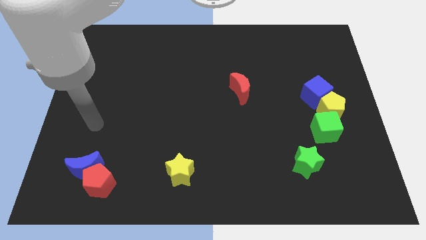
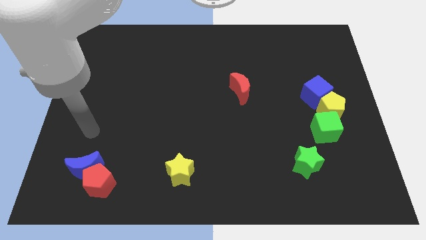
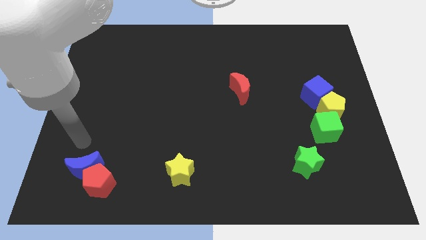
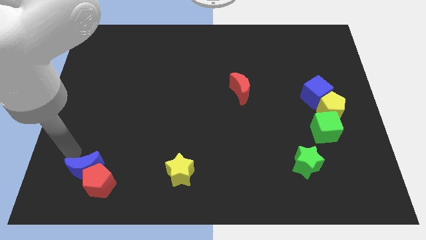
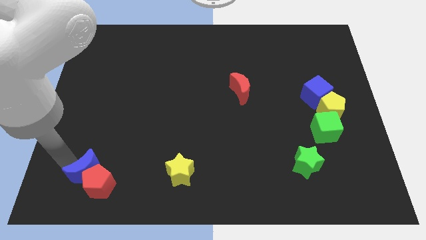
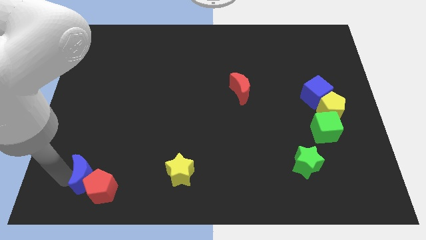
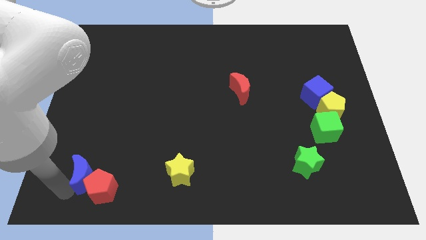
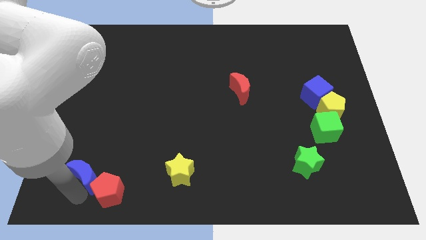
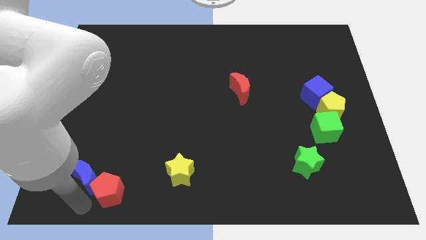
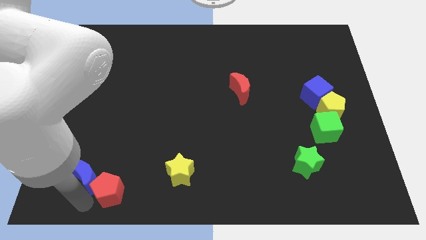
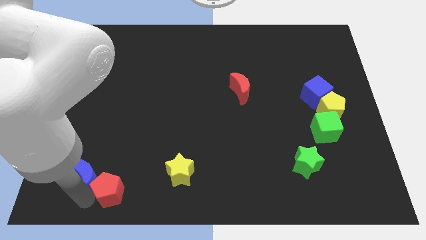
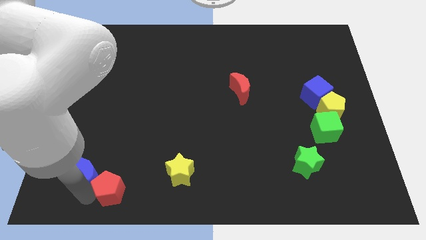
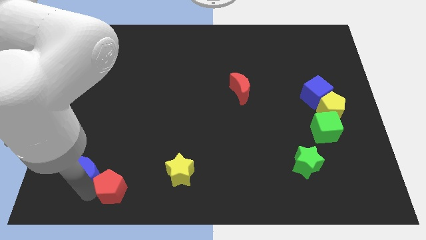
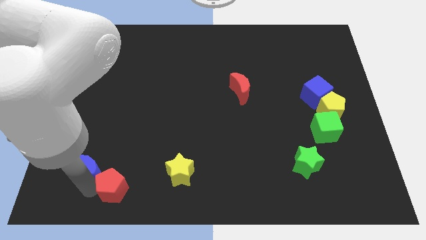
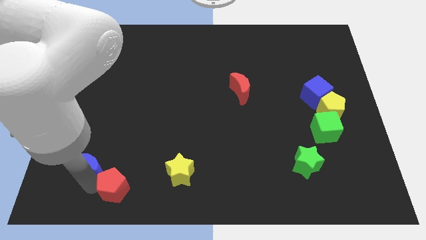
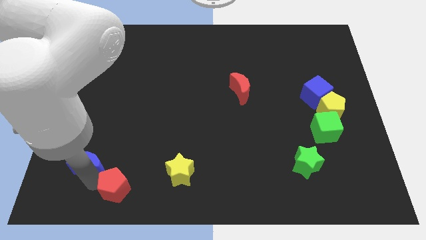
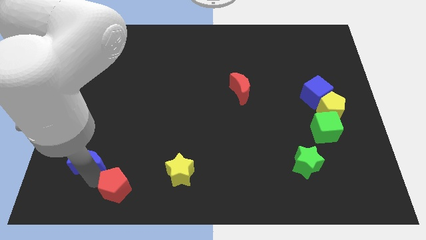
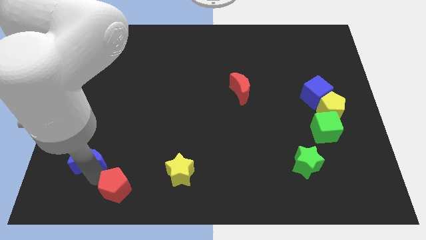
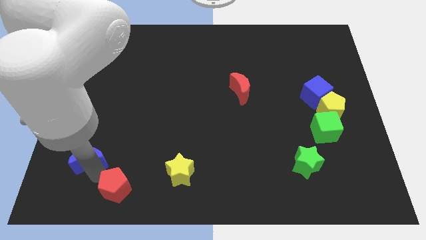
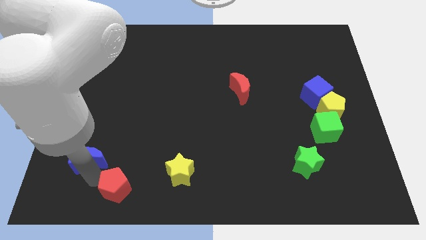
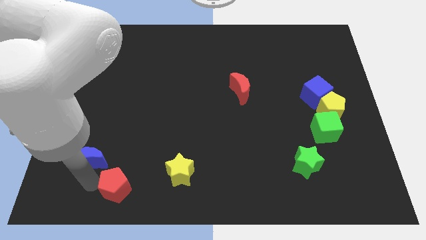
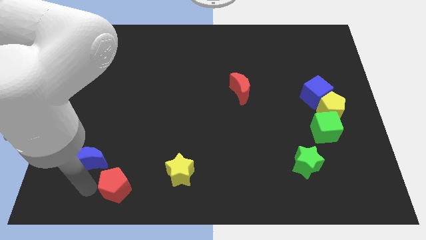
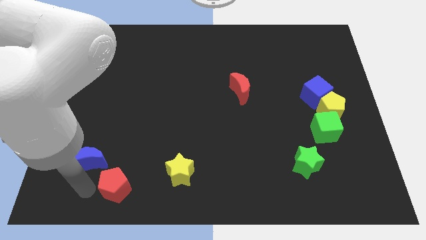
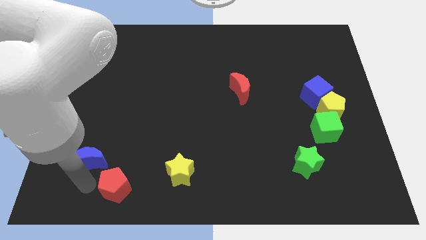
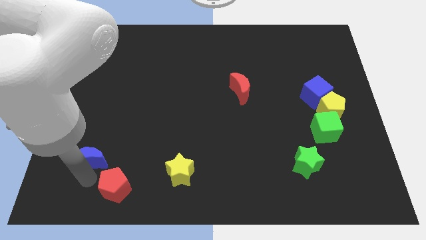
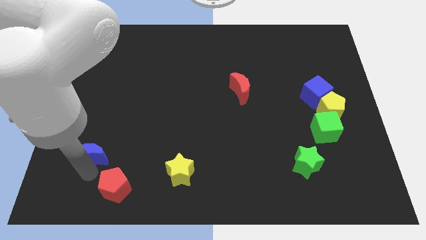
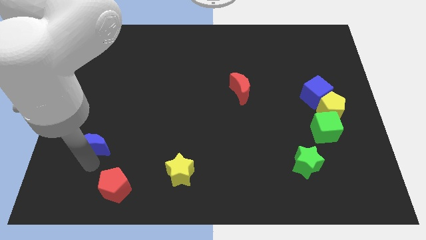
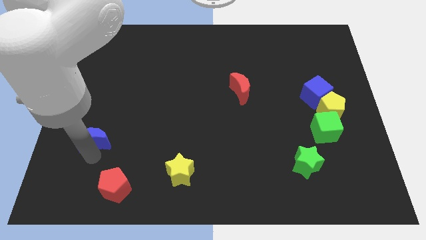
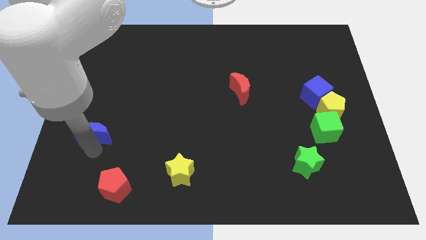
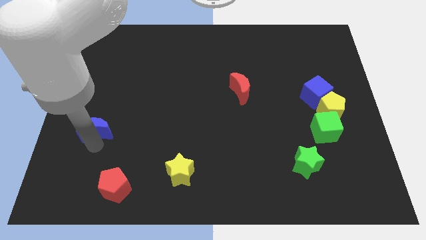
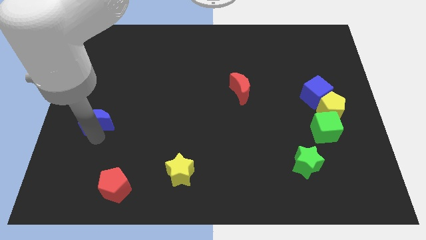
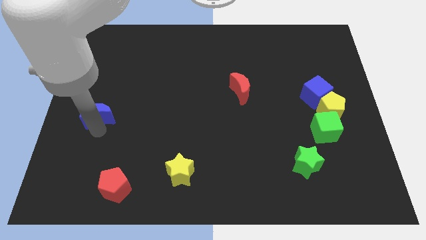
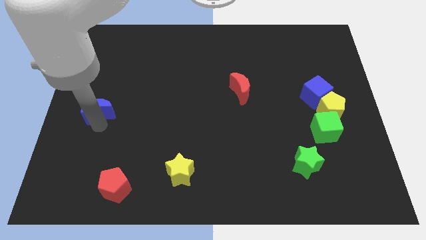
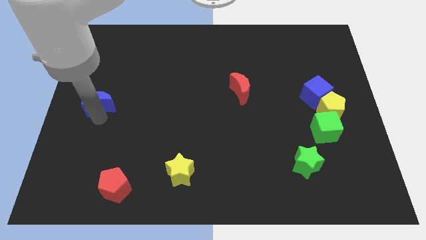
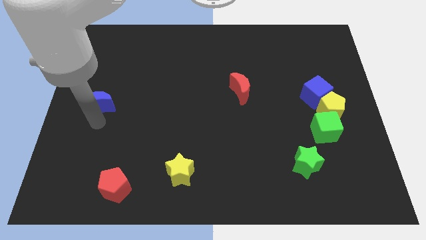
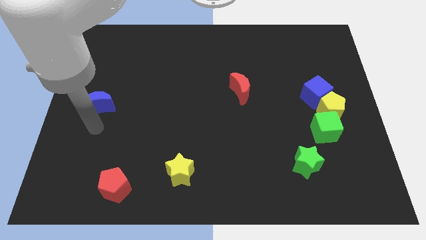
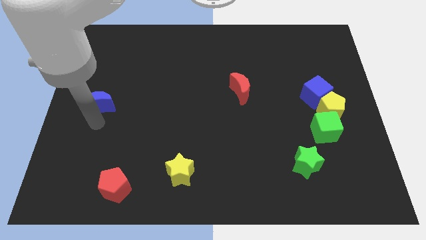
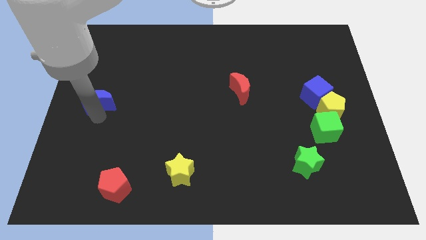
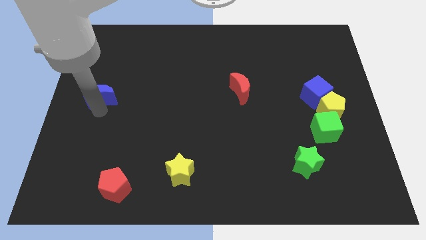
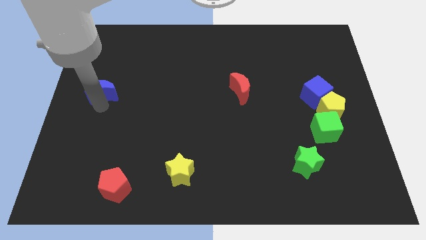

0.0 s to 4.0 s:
slide the blue moon upwards

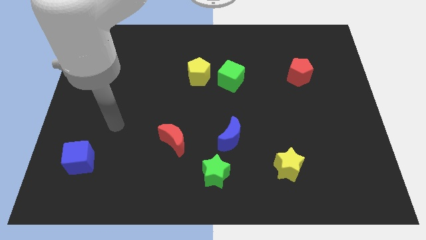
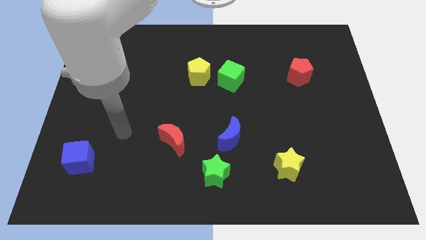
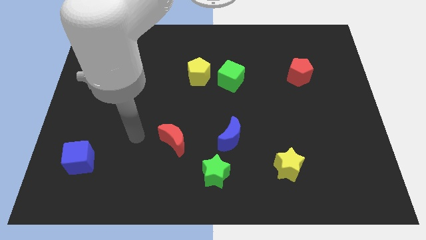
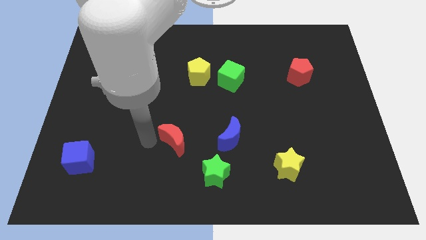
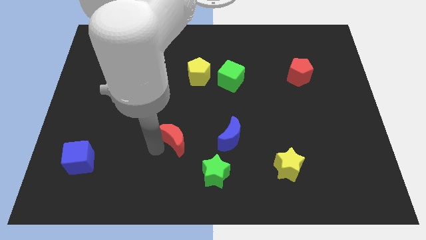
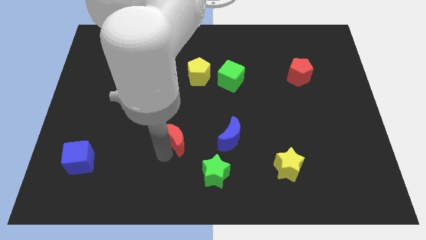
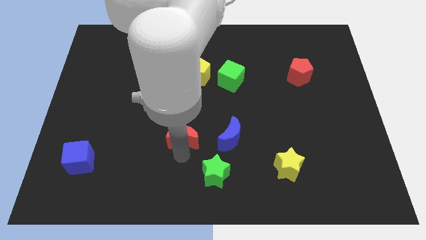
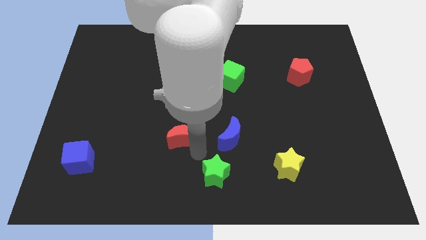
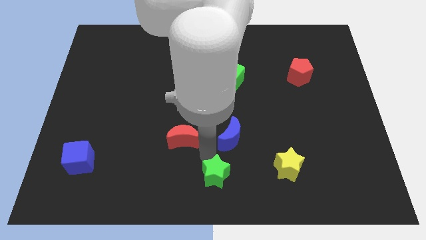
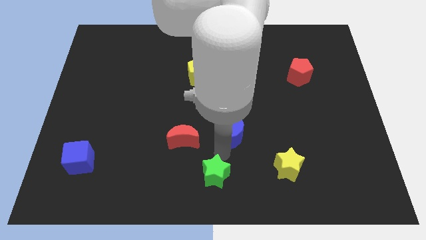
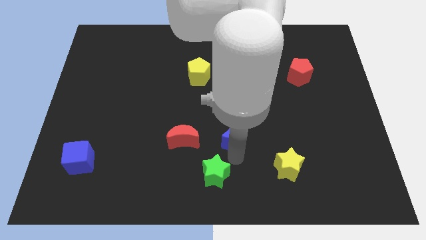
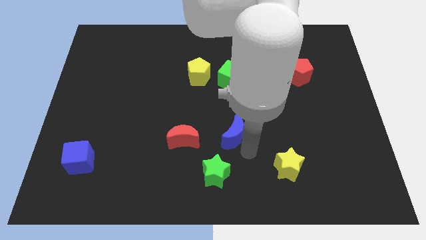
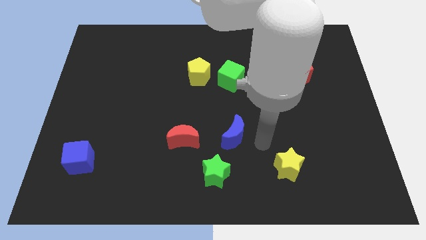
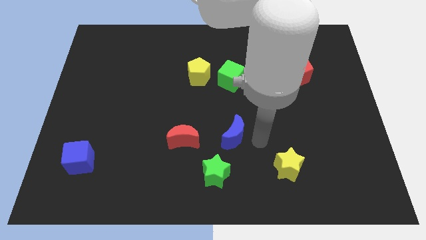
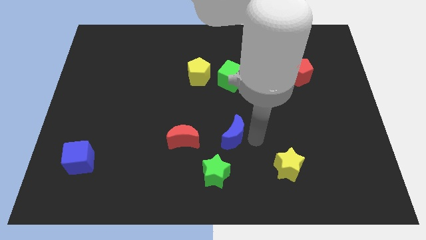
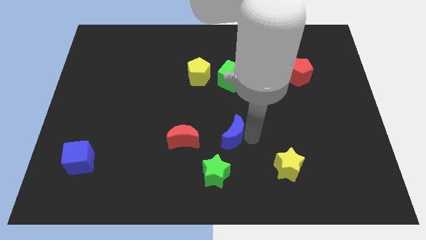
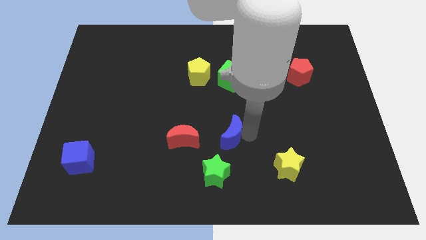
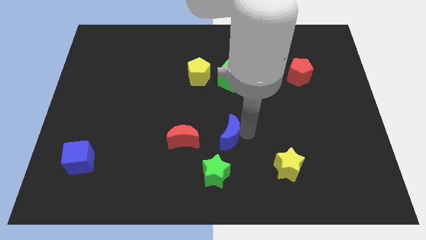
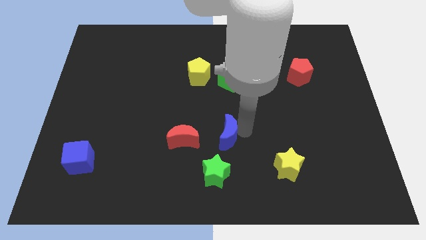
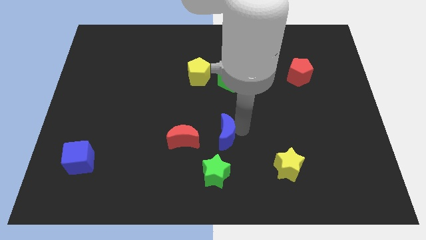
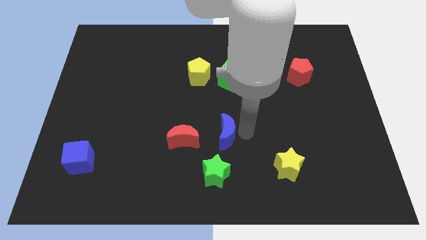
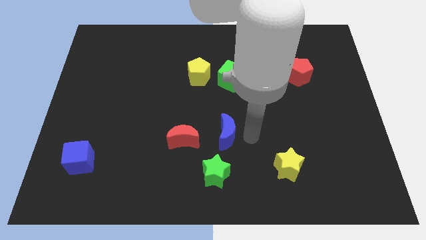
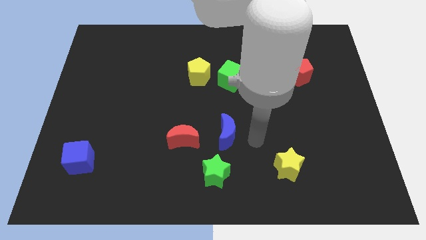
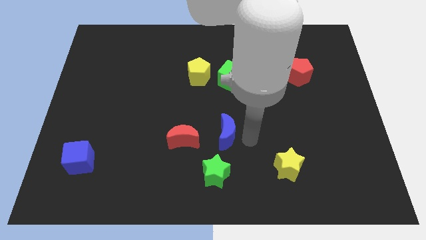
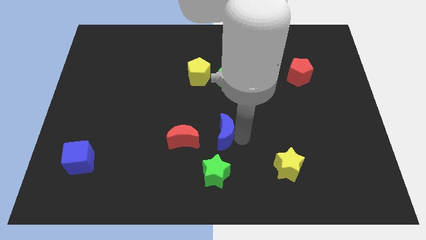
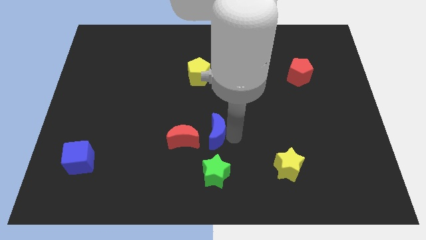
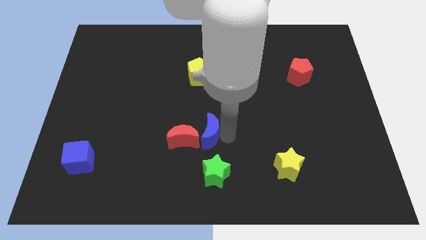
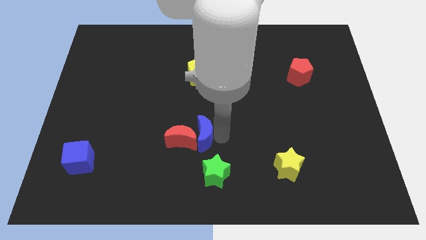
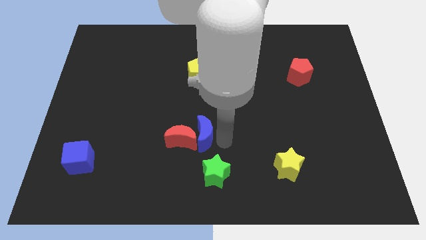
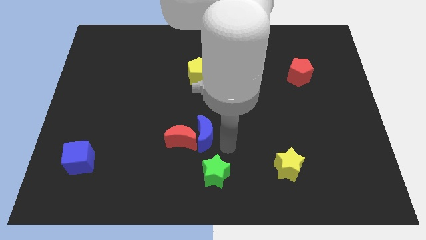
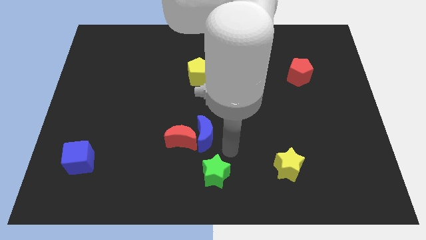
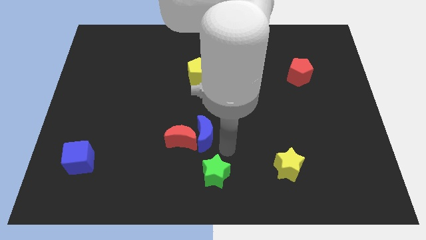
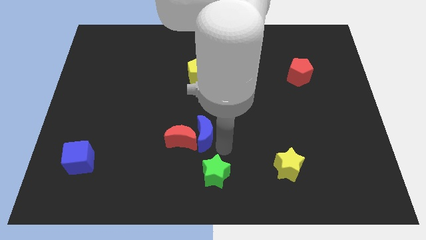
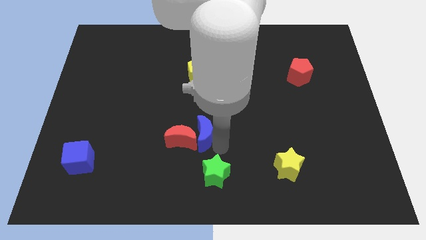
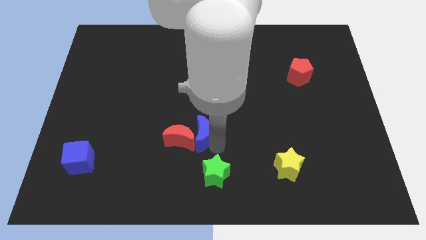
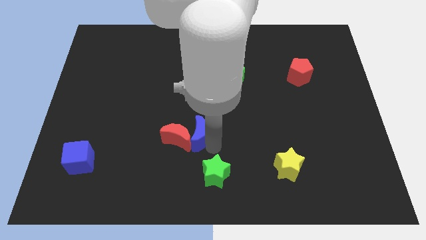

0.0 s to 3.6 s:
slightly slide the blue moon to the left

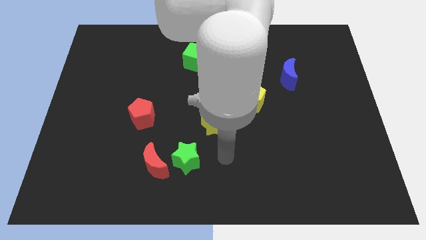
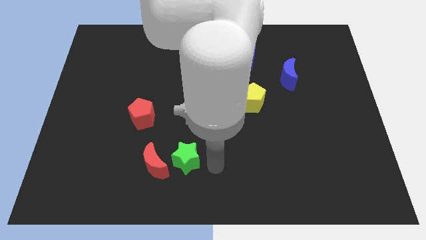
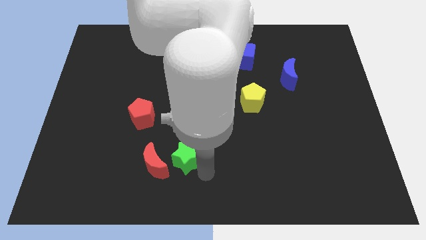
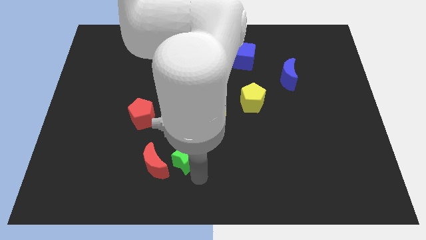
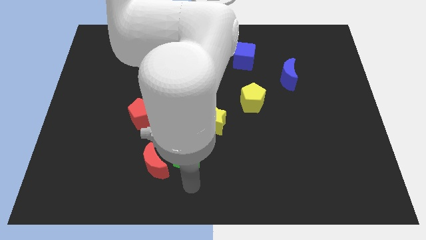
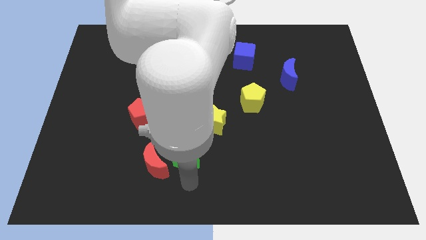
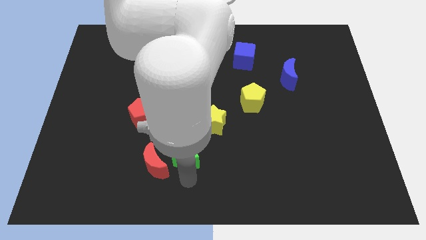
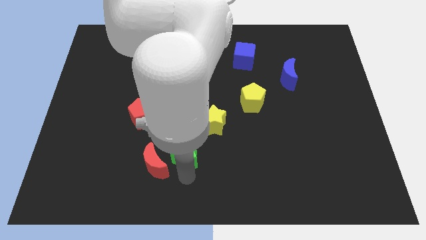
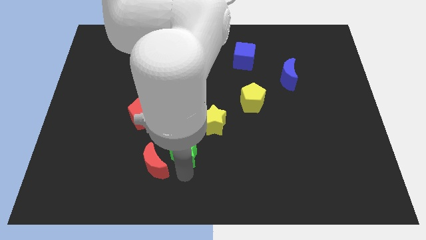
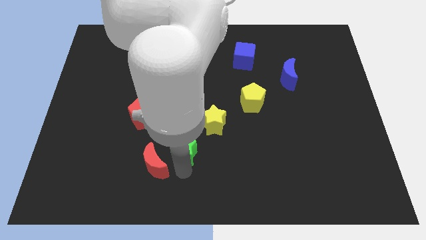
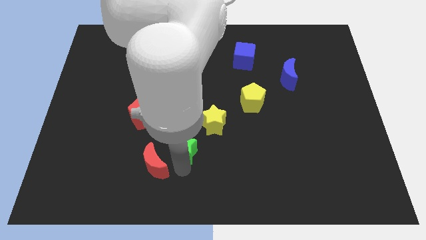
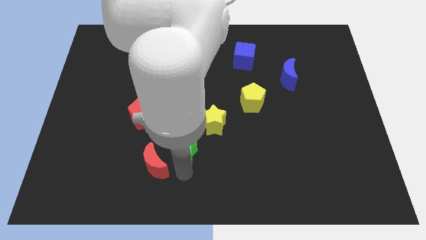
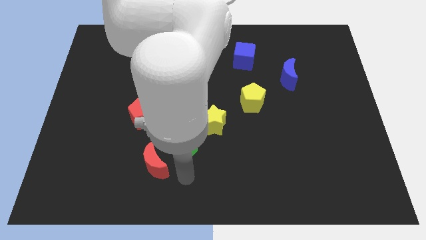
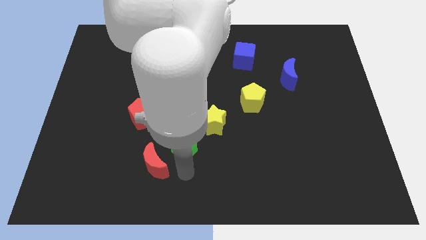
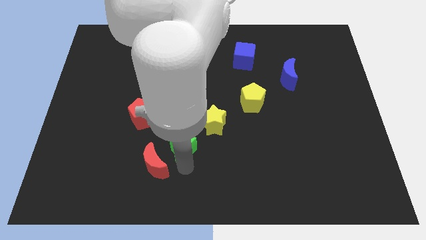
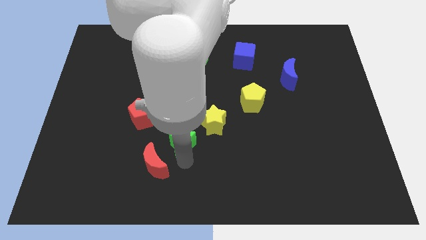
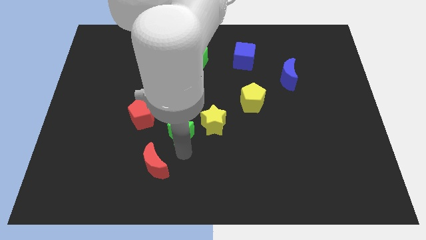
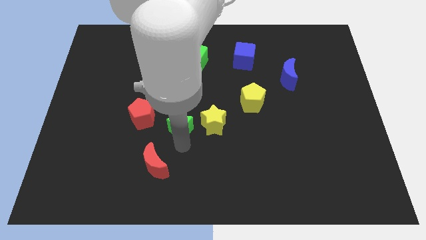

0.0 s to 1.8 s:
push the green star a little upwards
